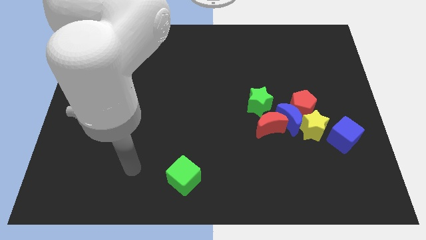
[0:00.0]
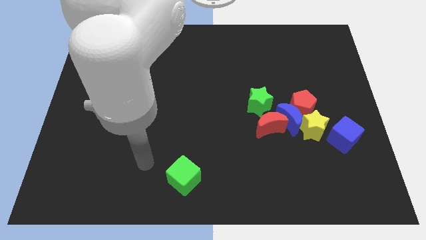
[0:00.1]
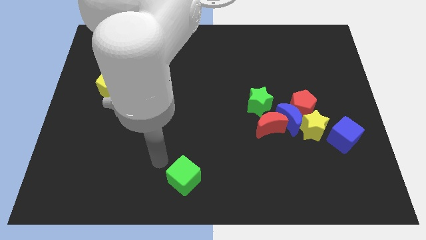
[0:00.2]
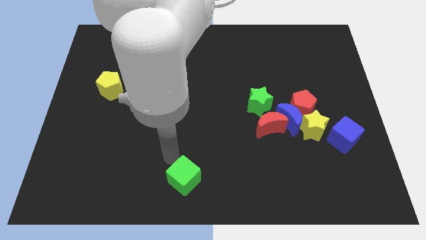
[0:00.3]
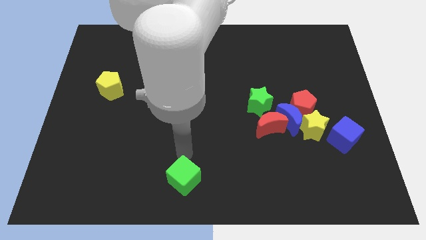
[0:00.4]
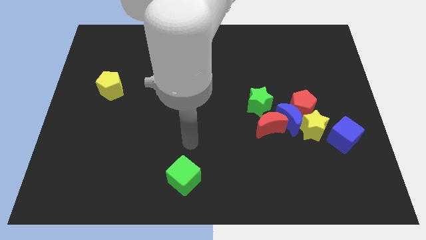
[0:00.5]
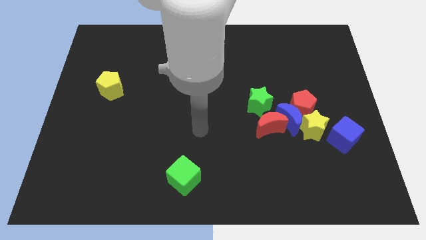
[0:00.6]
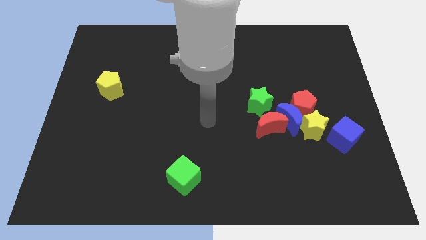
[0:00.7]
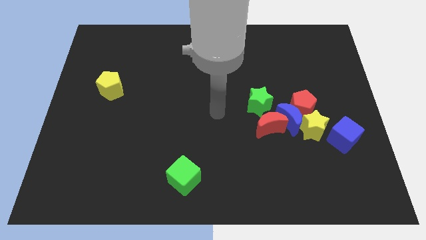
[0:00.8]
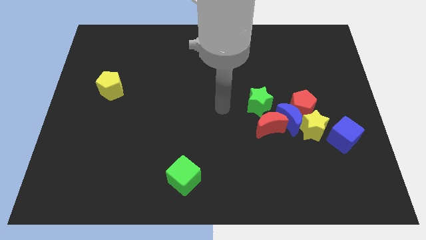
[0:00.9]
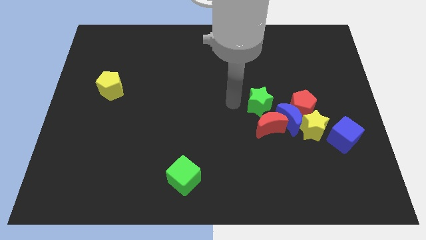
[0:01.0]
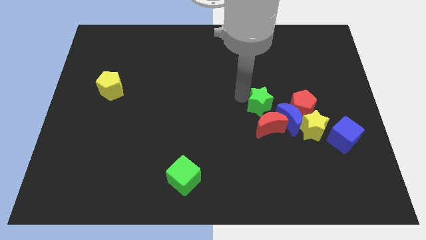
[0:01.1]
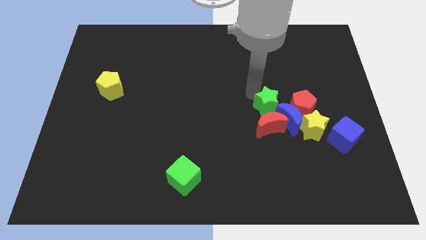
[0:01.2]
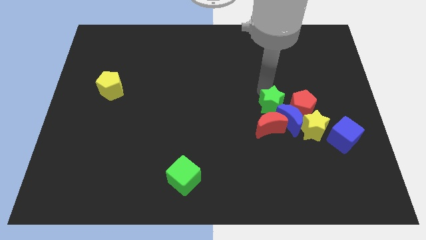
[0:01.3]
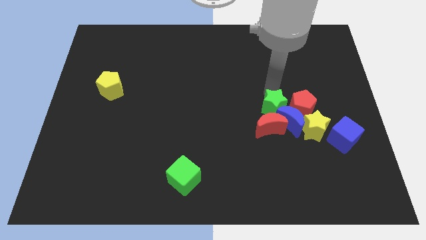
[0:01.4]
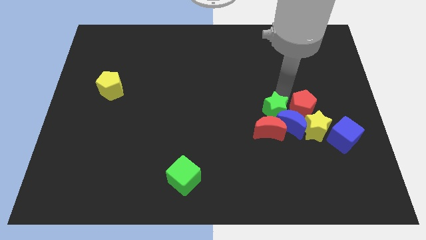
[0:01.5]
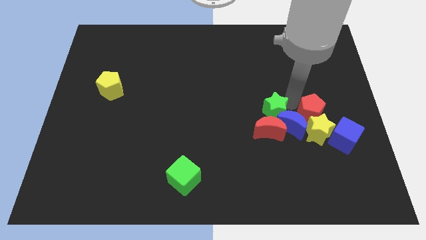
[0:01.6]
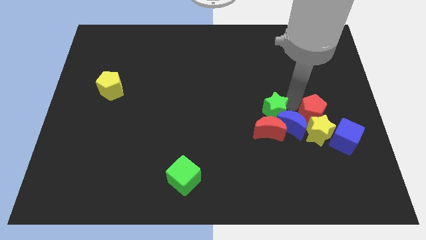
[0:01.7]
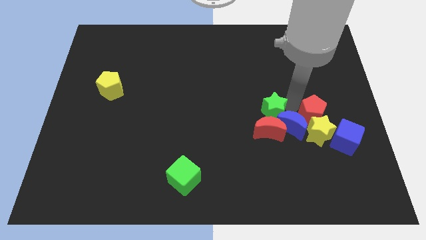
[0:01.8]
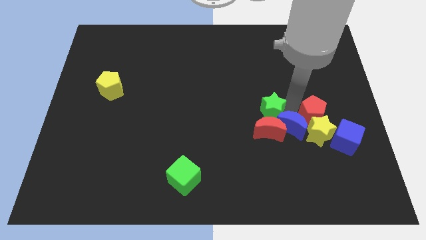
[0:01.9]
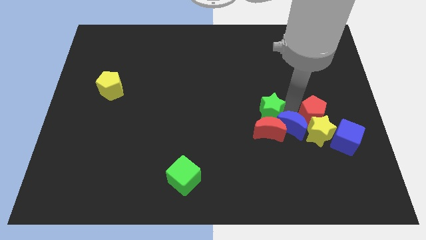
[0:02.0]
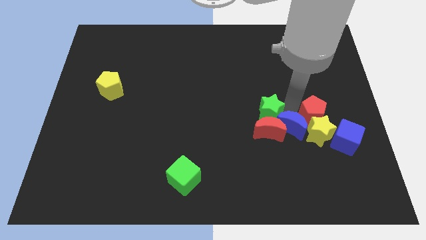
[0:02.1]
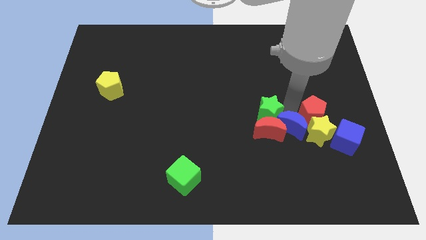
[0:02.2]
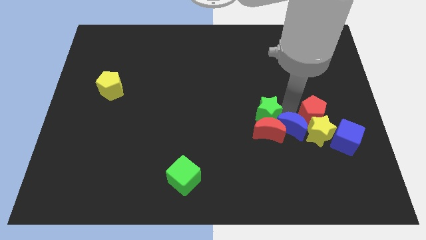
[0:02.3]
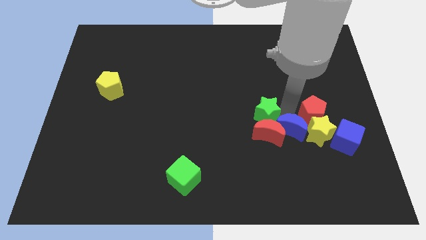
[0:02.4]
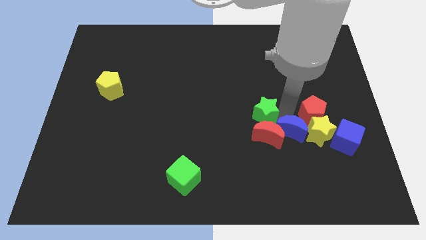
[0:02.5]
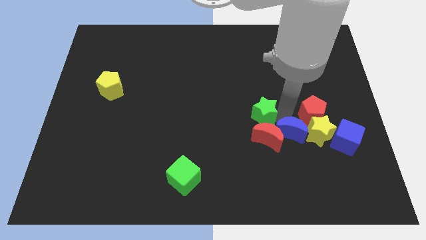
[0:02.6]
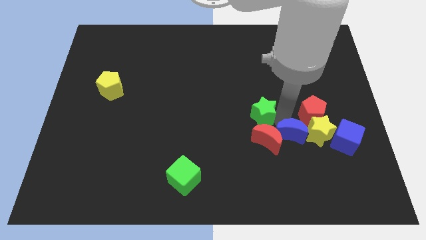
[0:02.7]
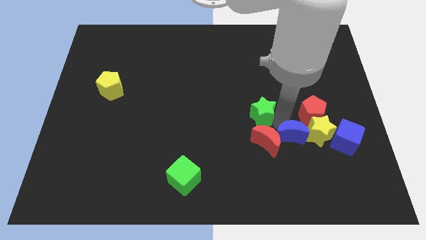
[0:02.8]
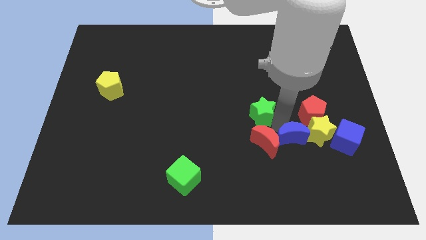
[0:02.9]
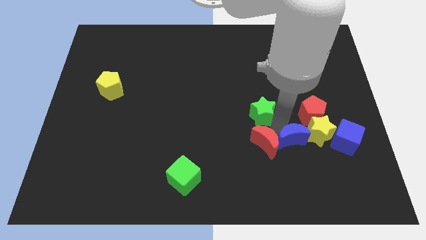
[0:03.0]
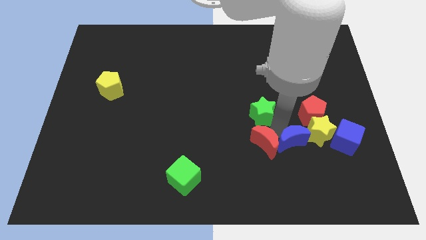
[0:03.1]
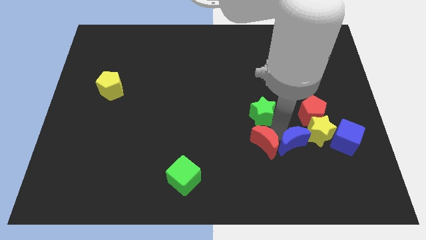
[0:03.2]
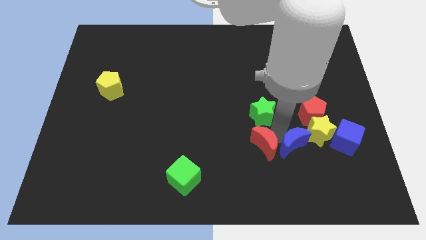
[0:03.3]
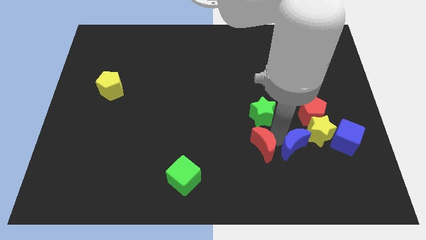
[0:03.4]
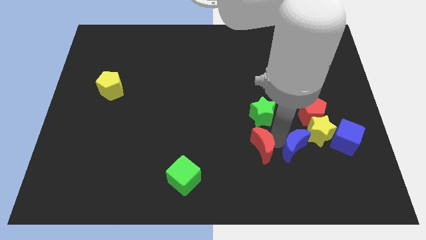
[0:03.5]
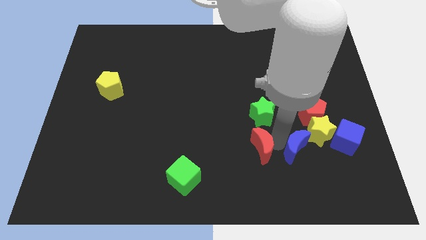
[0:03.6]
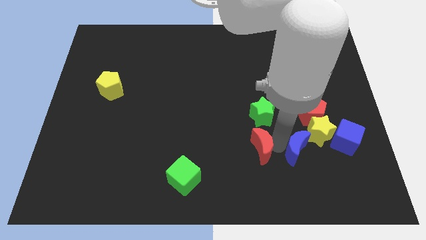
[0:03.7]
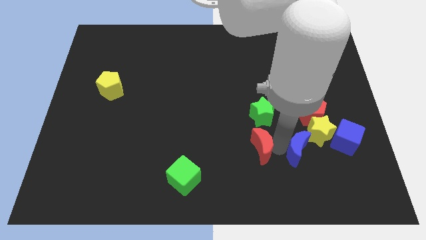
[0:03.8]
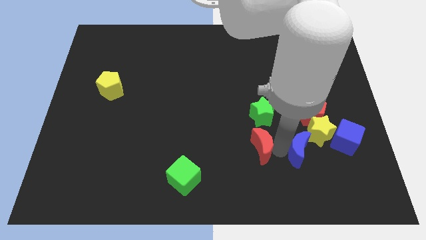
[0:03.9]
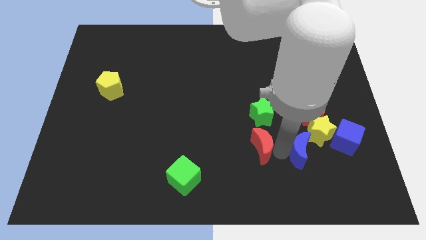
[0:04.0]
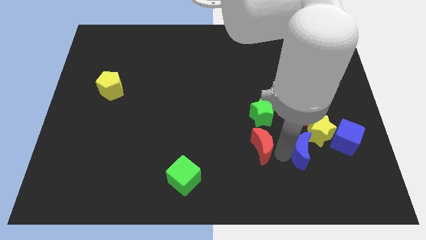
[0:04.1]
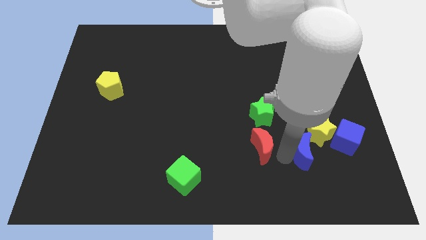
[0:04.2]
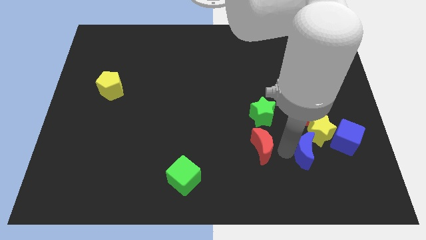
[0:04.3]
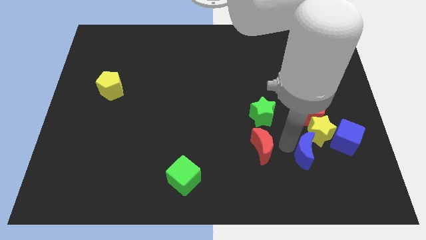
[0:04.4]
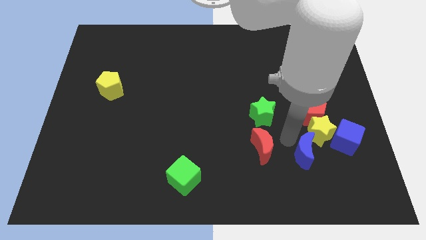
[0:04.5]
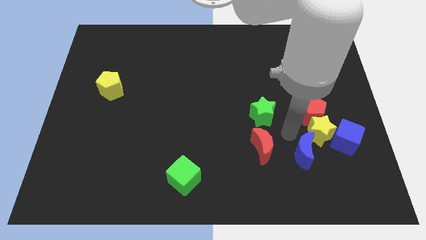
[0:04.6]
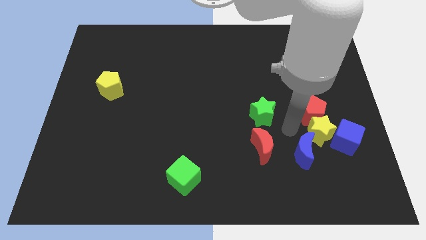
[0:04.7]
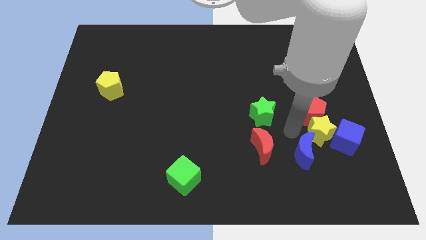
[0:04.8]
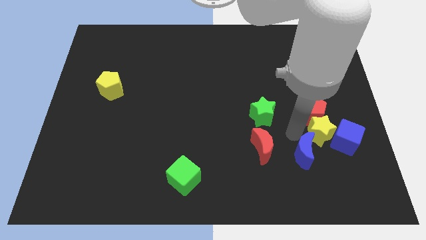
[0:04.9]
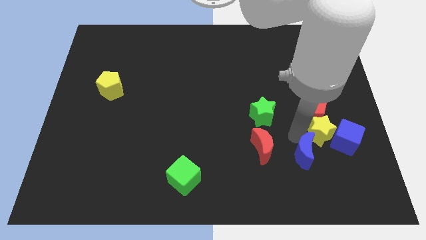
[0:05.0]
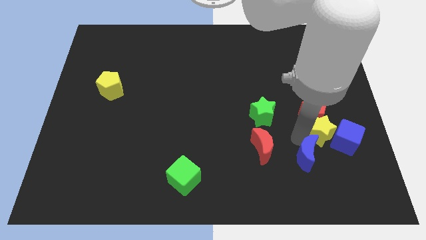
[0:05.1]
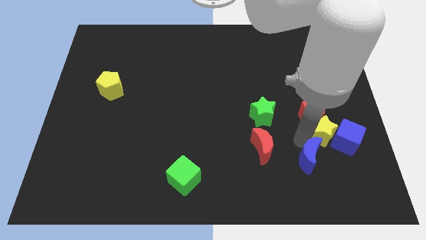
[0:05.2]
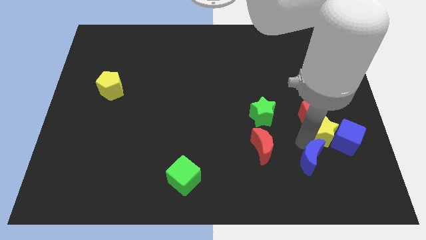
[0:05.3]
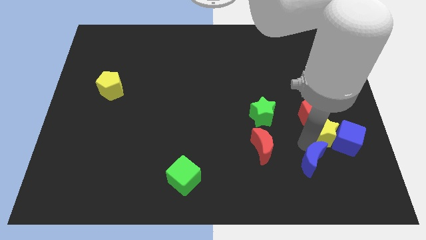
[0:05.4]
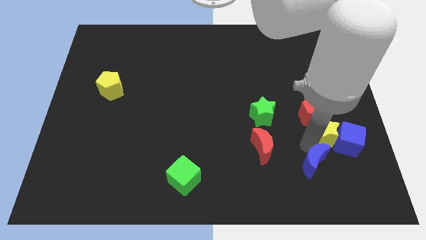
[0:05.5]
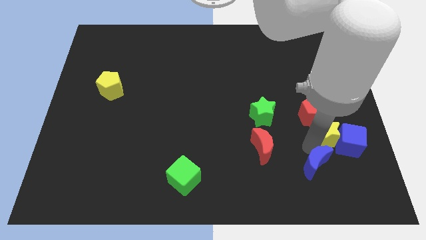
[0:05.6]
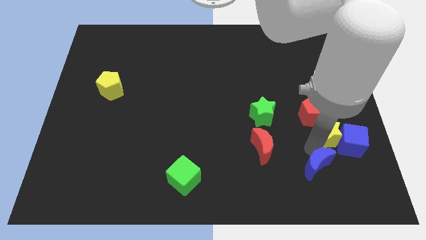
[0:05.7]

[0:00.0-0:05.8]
move the blue moon away from the group

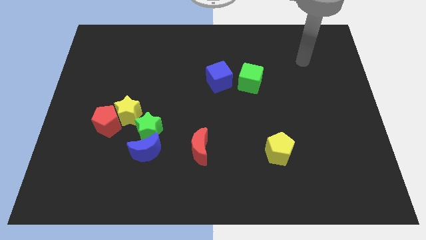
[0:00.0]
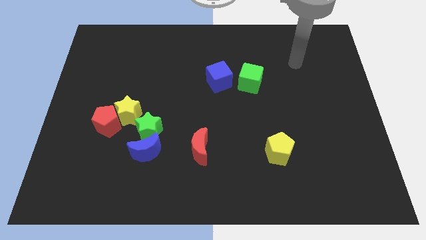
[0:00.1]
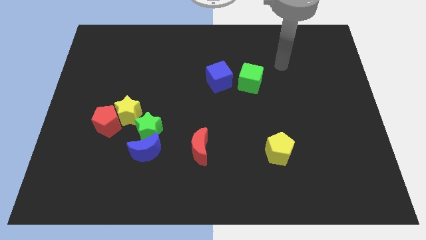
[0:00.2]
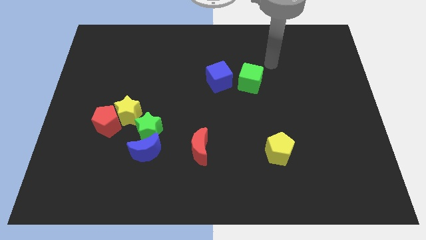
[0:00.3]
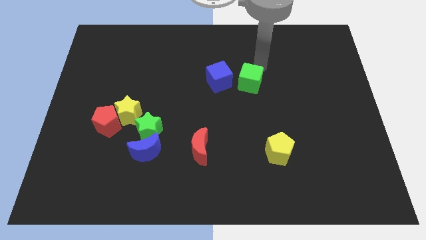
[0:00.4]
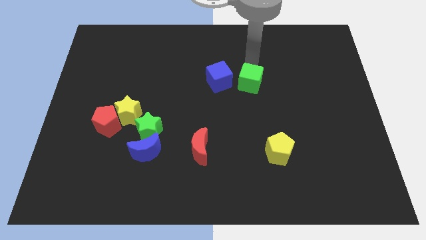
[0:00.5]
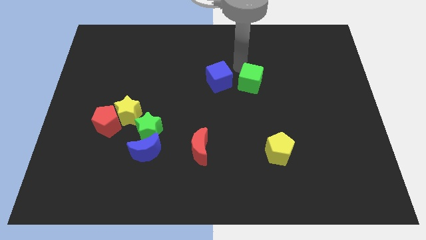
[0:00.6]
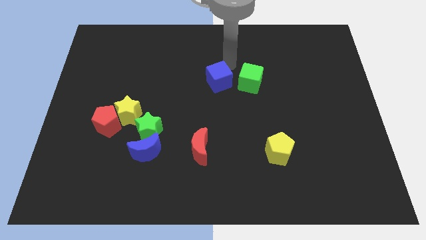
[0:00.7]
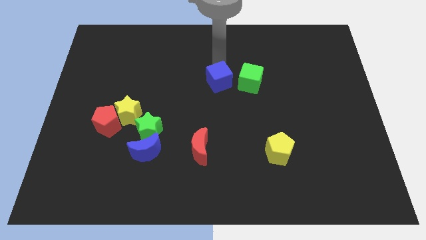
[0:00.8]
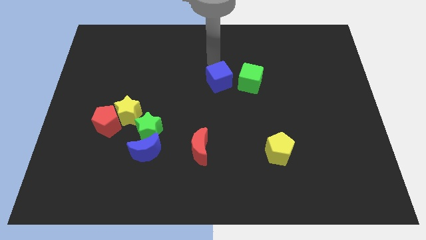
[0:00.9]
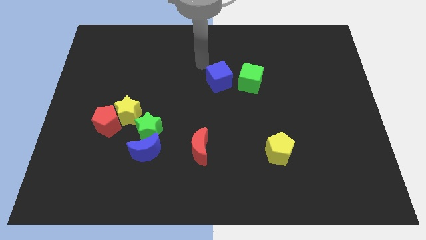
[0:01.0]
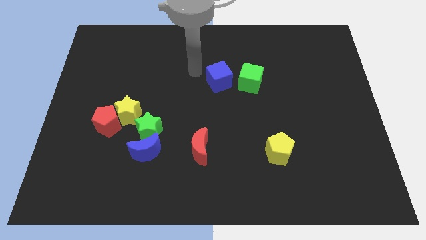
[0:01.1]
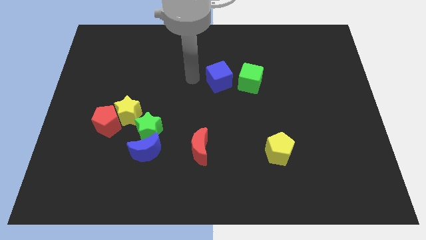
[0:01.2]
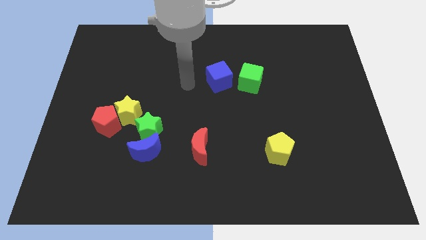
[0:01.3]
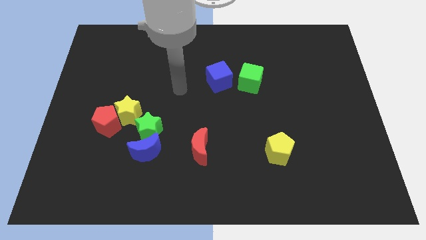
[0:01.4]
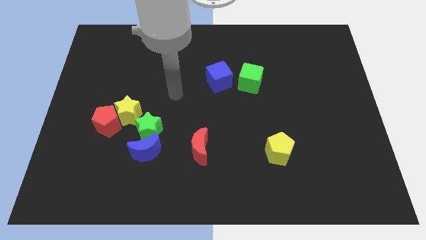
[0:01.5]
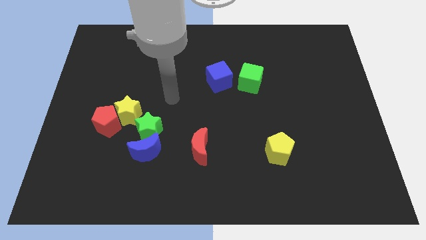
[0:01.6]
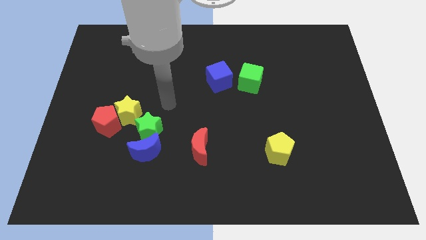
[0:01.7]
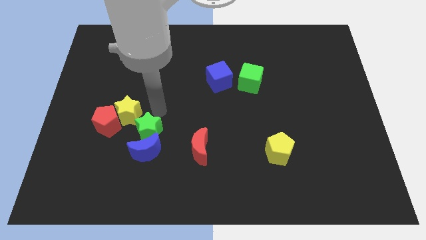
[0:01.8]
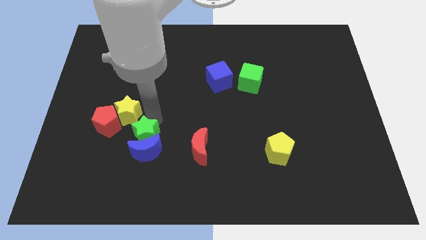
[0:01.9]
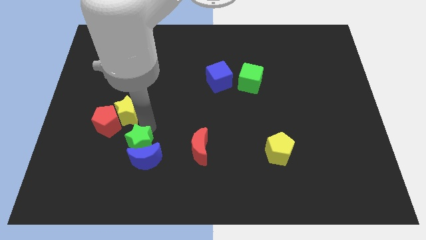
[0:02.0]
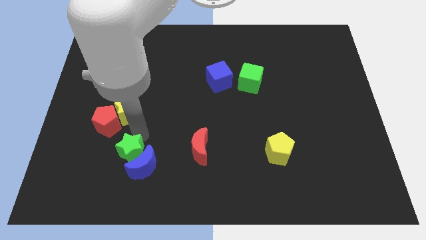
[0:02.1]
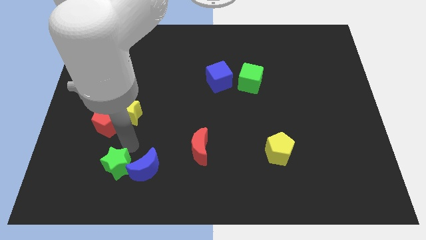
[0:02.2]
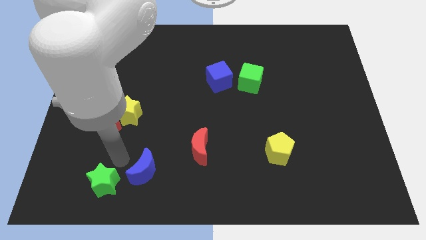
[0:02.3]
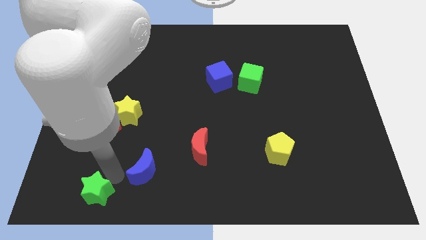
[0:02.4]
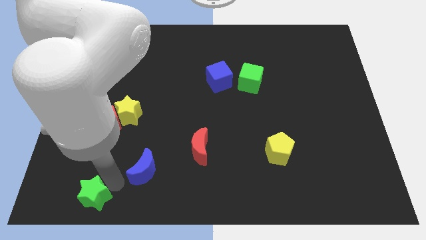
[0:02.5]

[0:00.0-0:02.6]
pull the blue moon apart from the green star

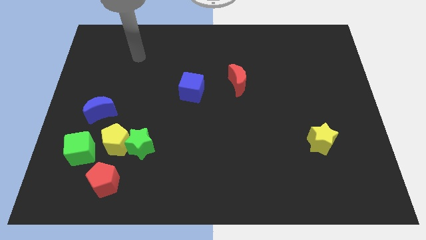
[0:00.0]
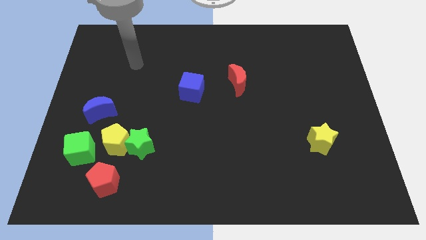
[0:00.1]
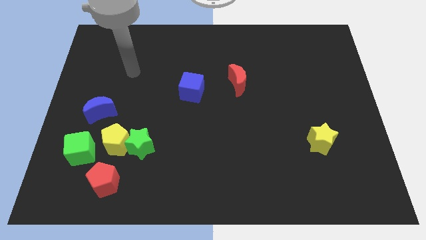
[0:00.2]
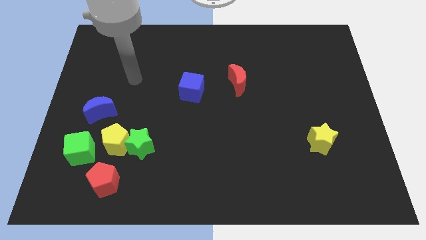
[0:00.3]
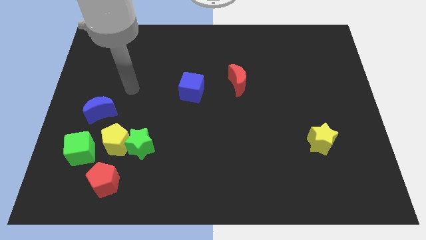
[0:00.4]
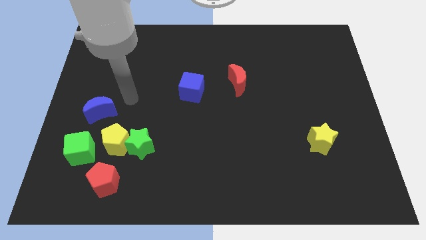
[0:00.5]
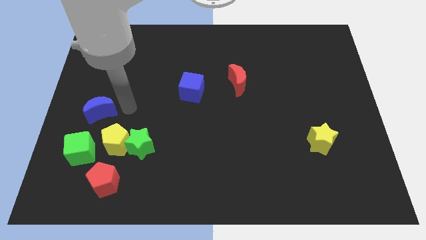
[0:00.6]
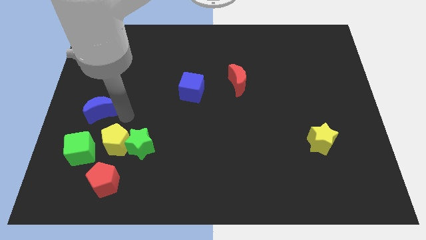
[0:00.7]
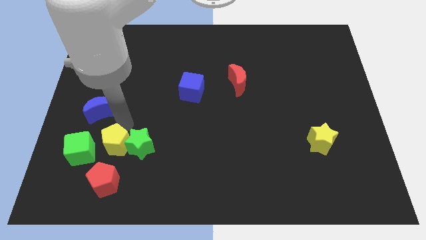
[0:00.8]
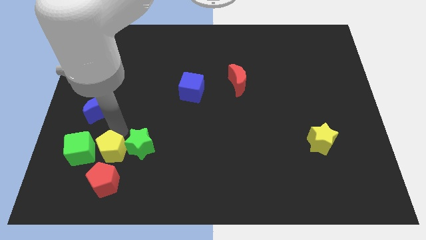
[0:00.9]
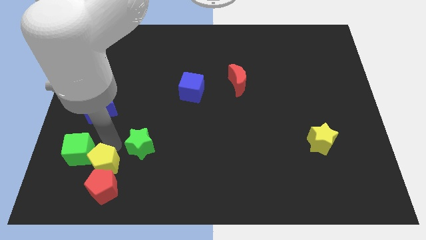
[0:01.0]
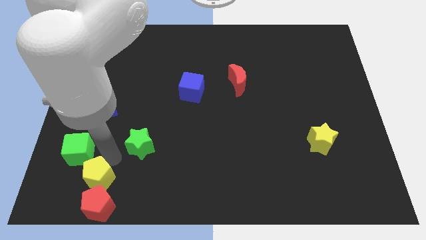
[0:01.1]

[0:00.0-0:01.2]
pull the green star apart from the yellow pentagon
